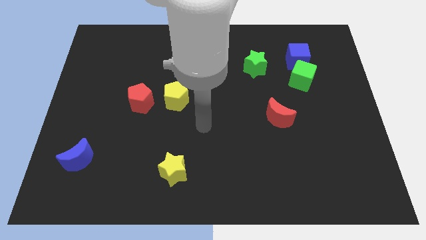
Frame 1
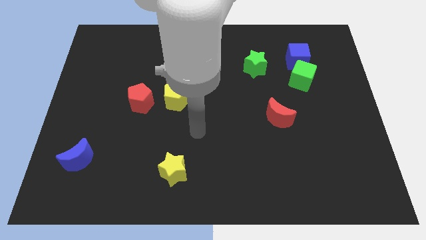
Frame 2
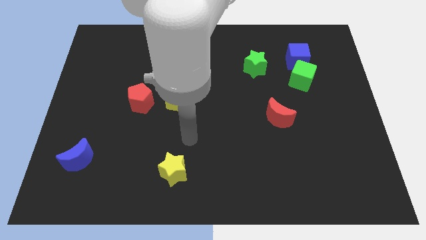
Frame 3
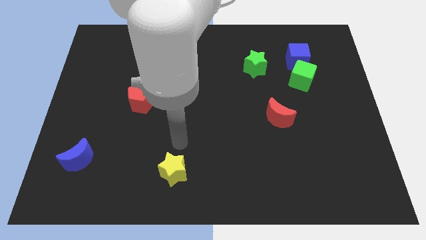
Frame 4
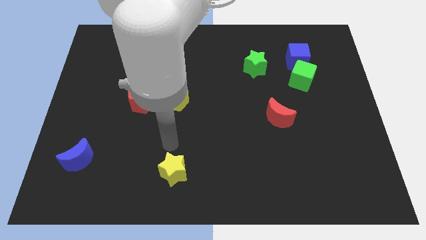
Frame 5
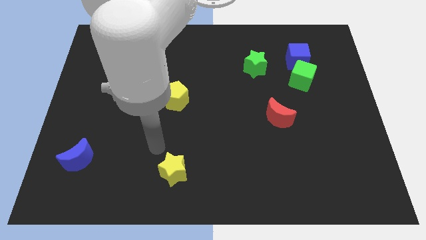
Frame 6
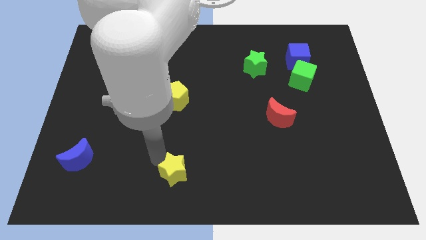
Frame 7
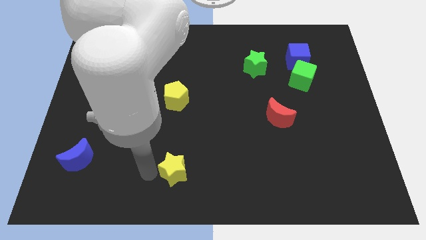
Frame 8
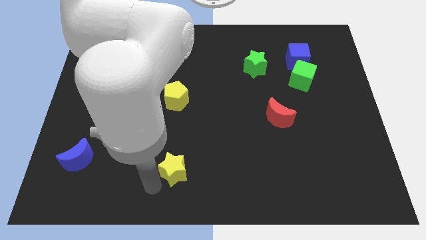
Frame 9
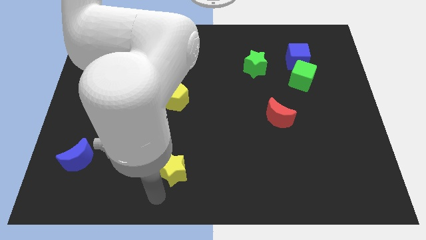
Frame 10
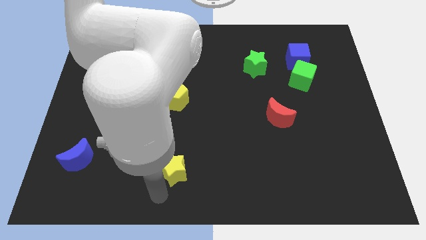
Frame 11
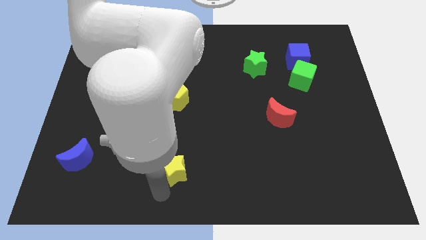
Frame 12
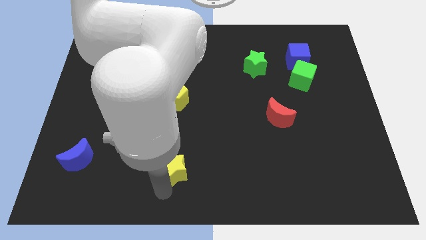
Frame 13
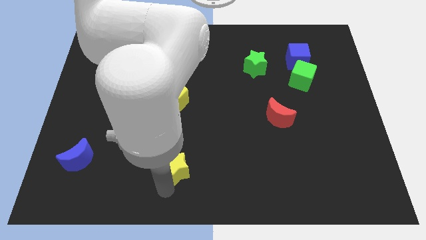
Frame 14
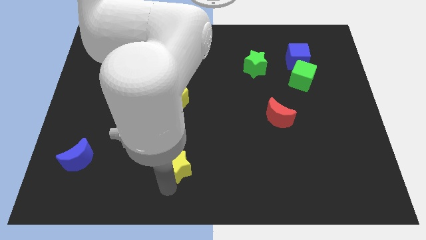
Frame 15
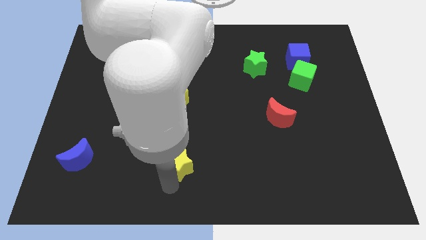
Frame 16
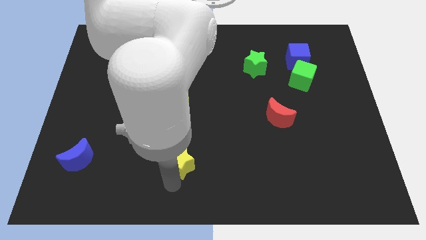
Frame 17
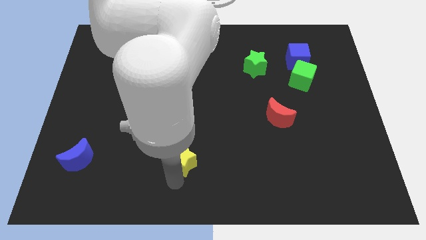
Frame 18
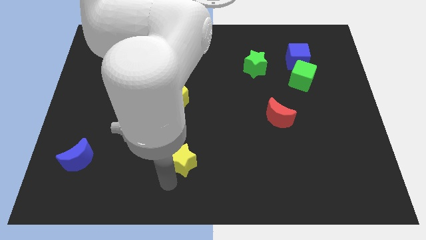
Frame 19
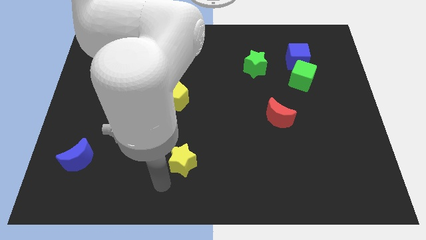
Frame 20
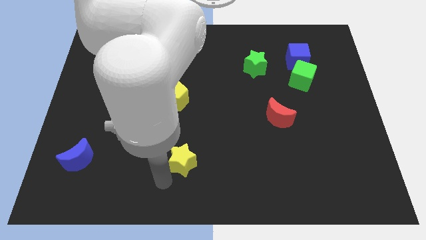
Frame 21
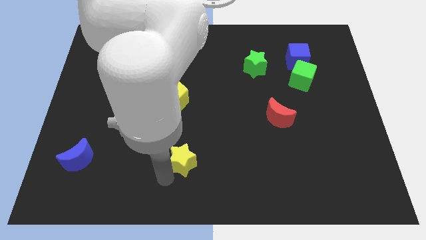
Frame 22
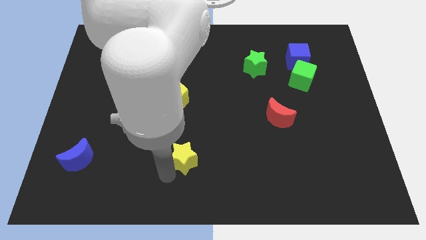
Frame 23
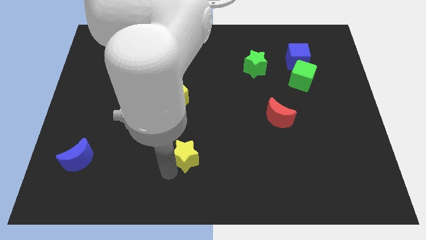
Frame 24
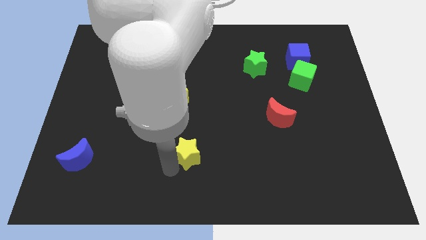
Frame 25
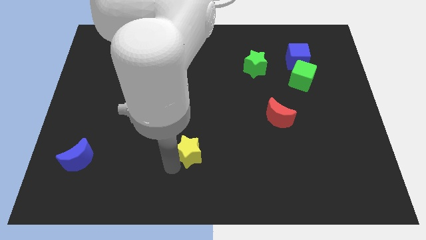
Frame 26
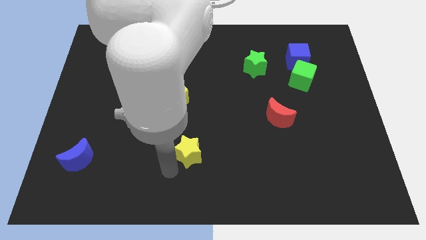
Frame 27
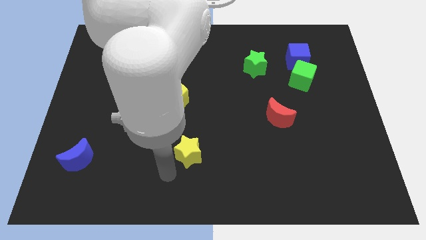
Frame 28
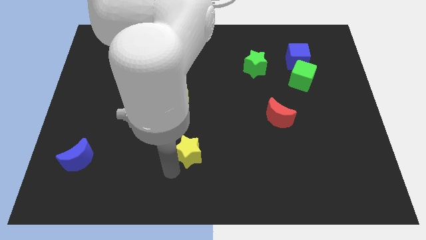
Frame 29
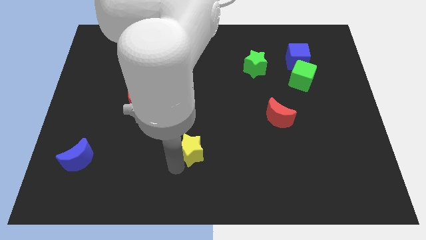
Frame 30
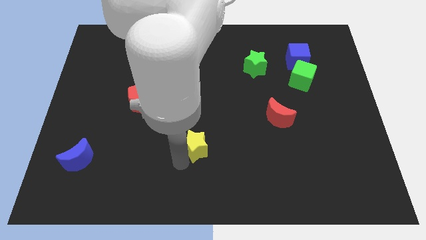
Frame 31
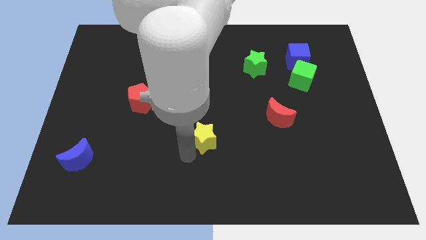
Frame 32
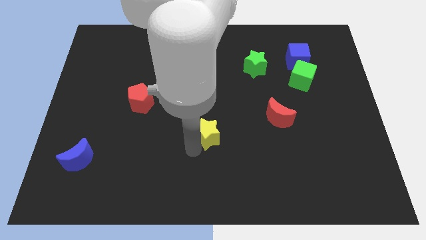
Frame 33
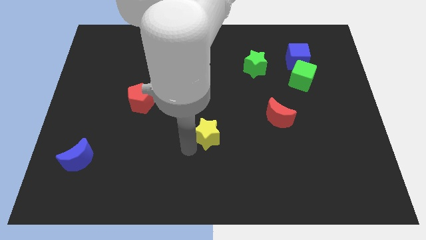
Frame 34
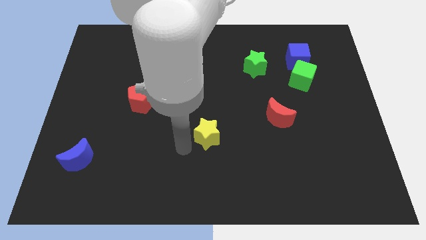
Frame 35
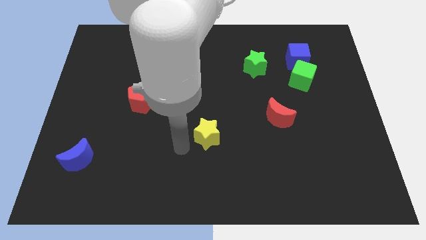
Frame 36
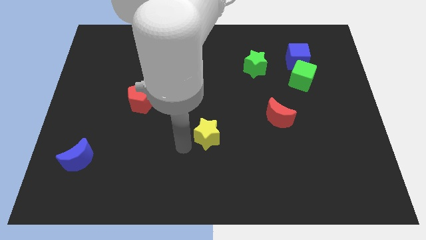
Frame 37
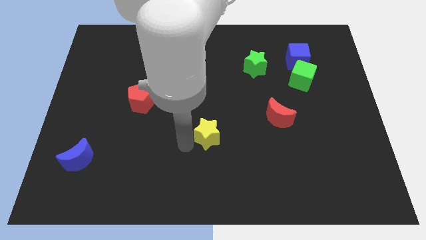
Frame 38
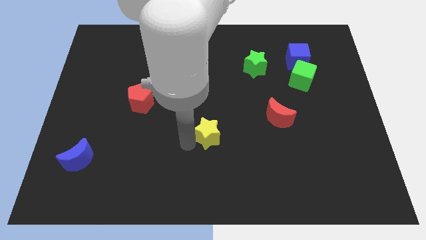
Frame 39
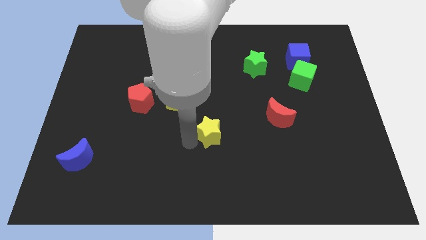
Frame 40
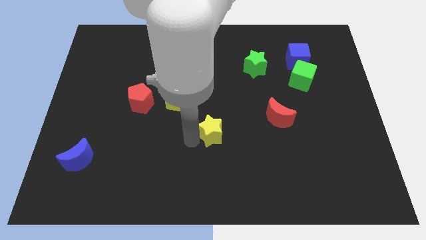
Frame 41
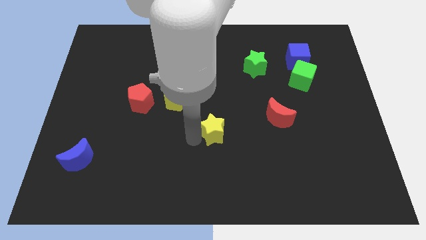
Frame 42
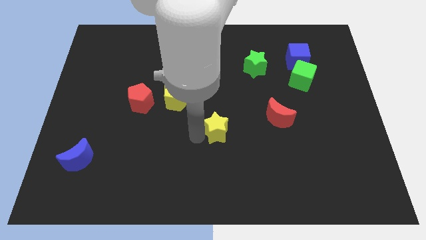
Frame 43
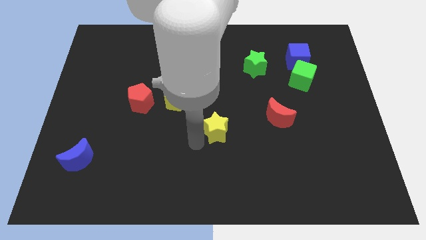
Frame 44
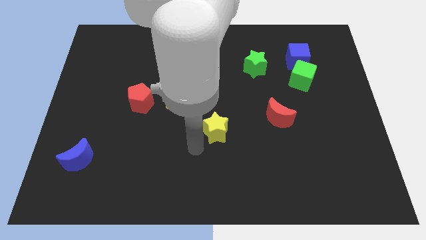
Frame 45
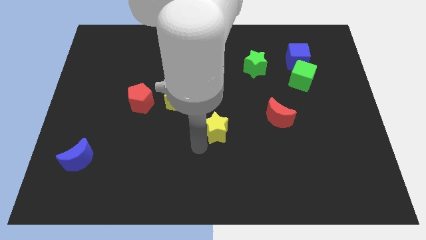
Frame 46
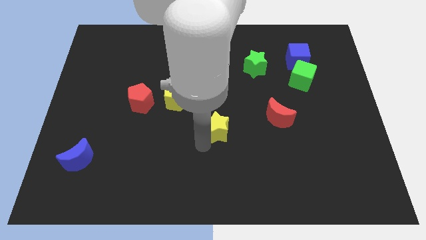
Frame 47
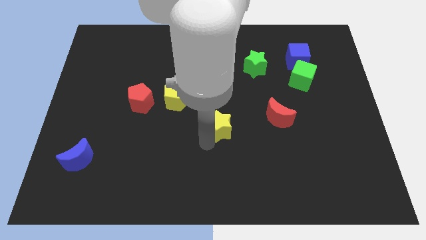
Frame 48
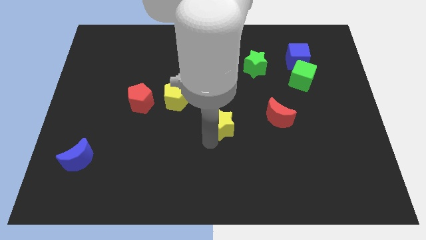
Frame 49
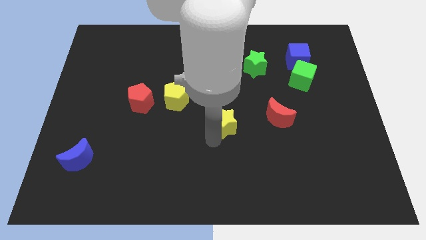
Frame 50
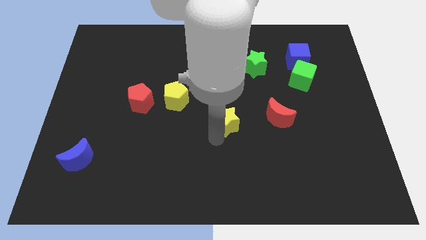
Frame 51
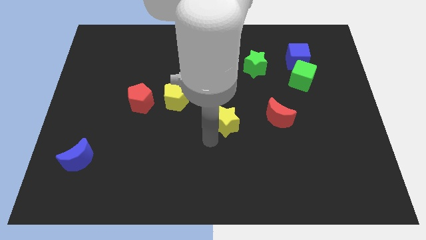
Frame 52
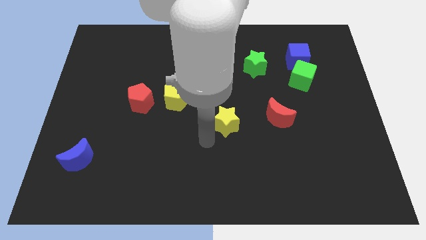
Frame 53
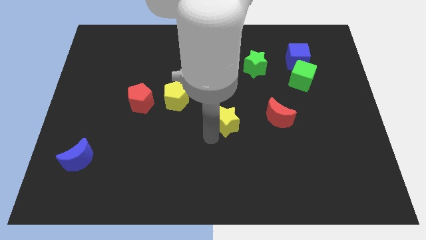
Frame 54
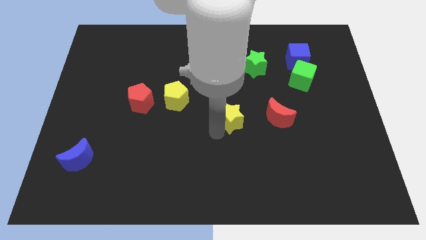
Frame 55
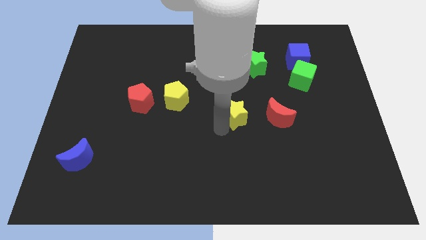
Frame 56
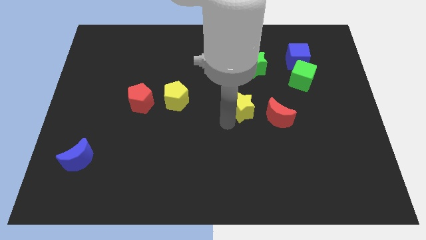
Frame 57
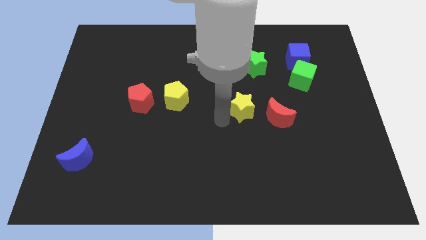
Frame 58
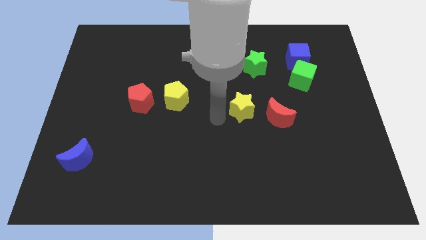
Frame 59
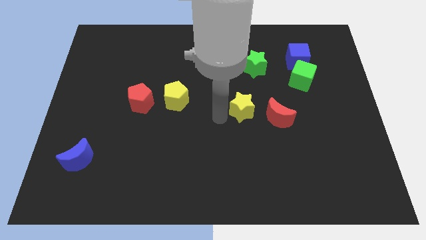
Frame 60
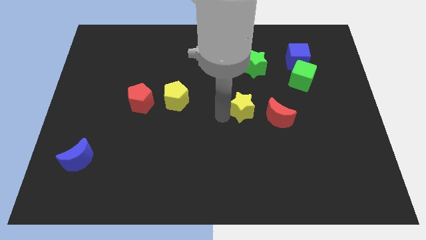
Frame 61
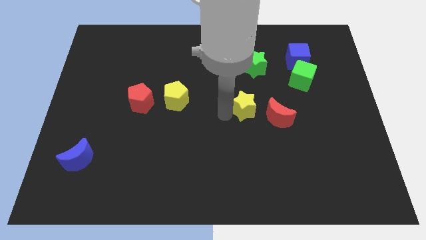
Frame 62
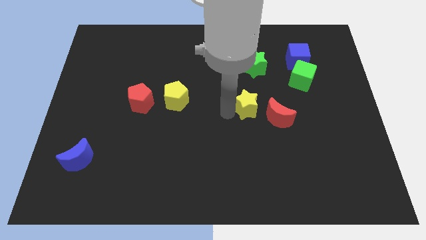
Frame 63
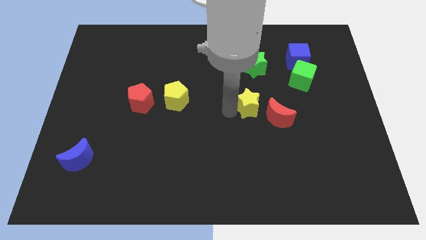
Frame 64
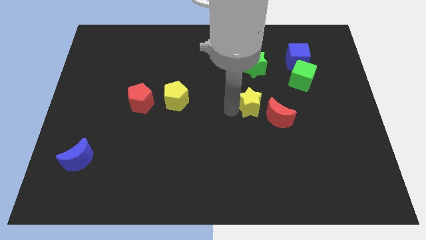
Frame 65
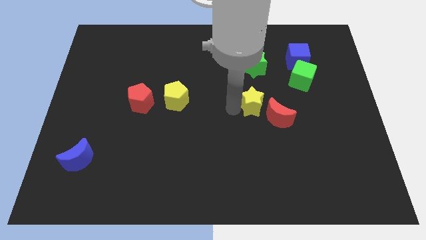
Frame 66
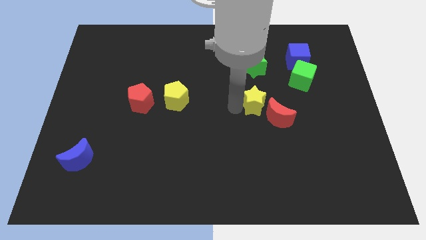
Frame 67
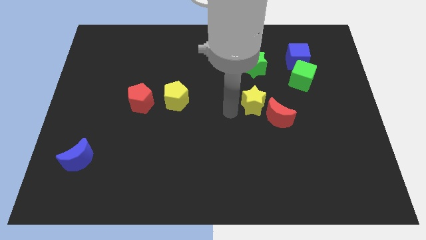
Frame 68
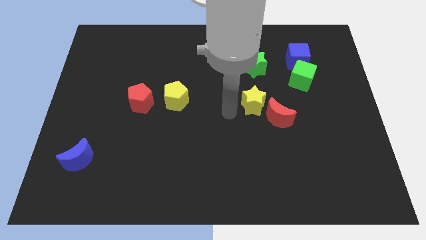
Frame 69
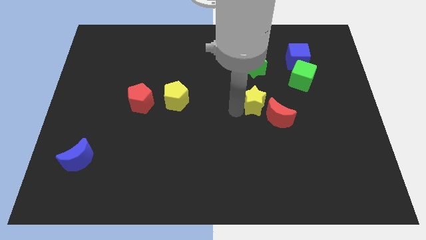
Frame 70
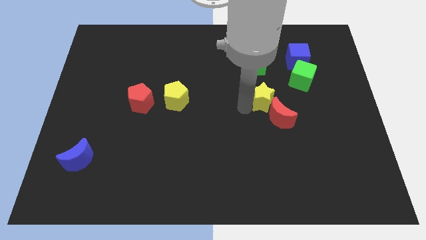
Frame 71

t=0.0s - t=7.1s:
slide the yellow star diagonally down and to the left of the green cube
